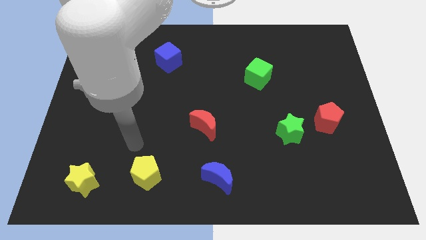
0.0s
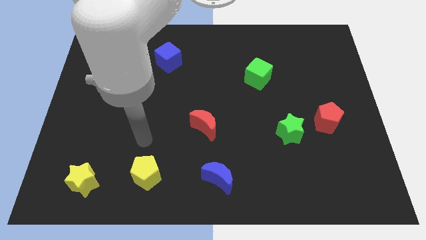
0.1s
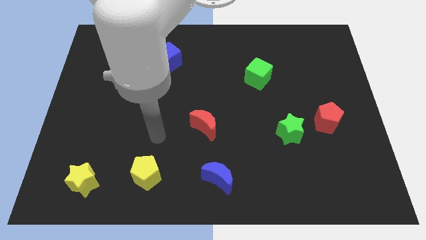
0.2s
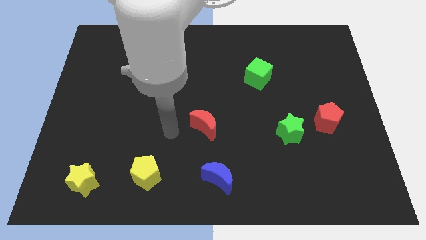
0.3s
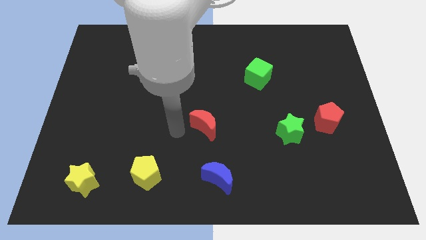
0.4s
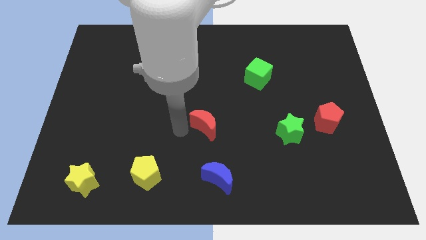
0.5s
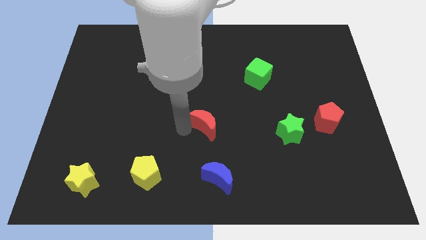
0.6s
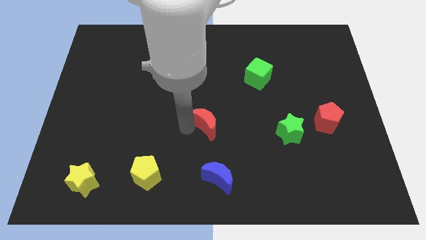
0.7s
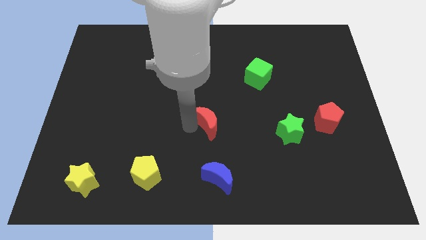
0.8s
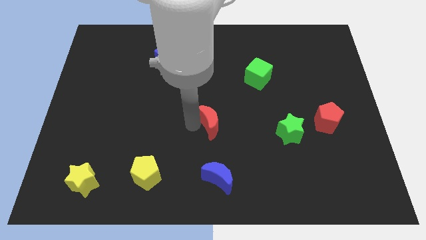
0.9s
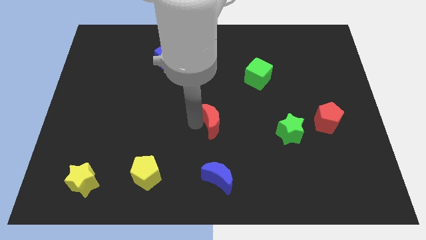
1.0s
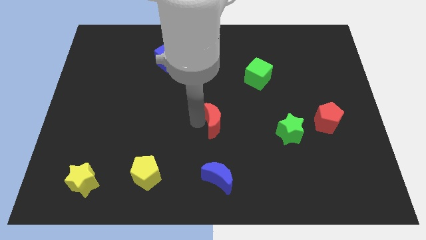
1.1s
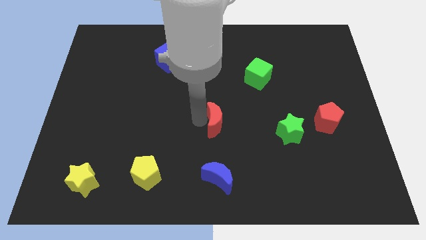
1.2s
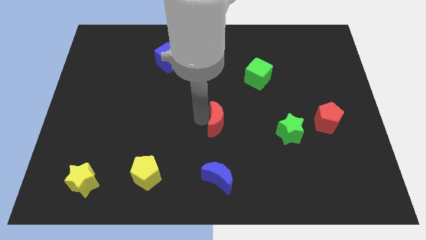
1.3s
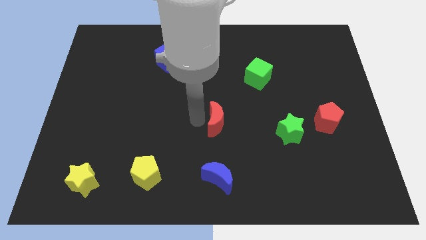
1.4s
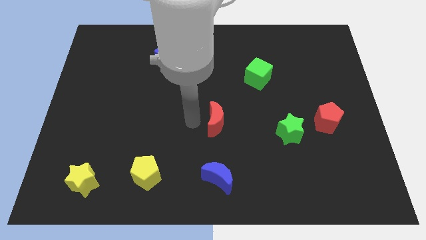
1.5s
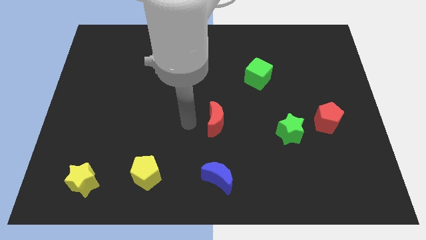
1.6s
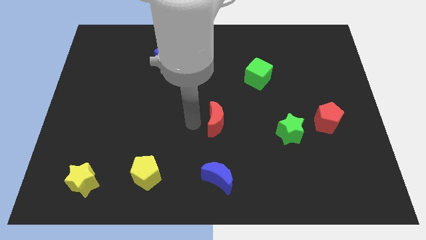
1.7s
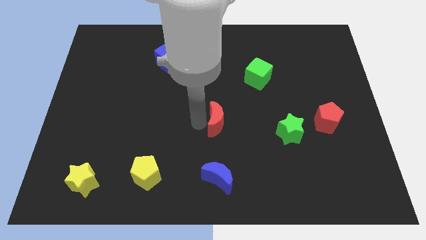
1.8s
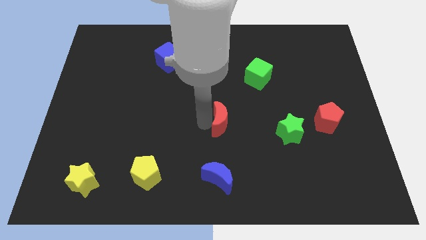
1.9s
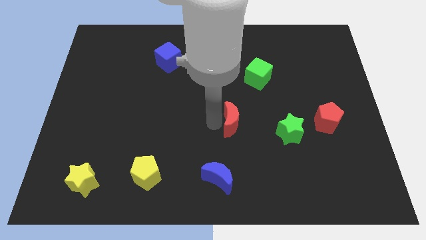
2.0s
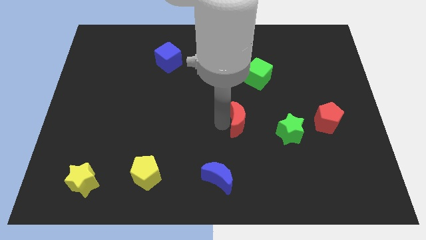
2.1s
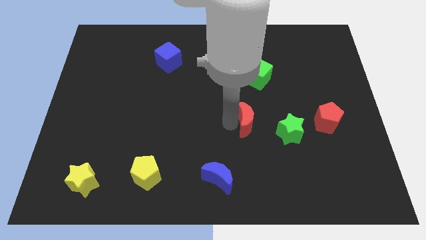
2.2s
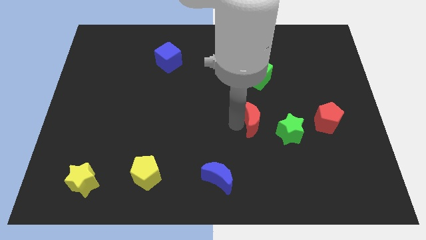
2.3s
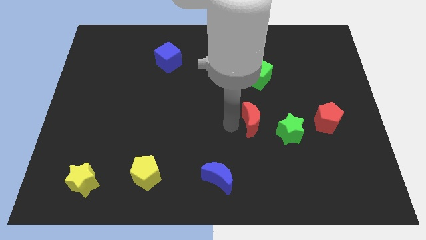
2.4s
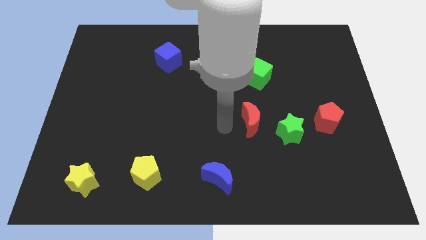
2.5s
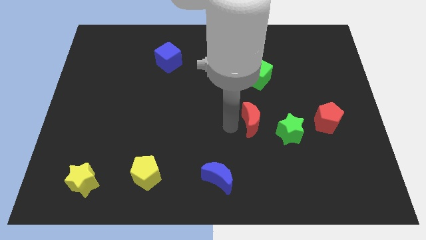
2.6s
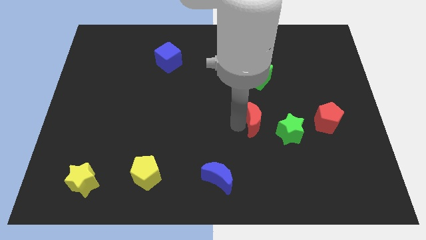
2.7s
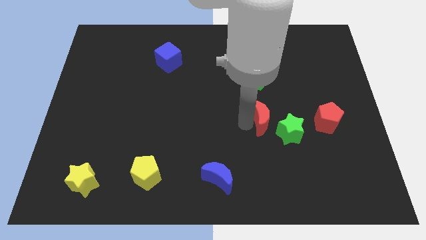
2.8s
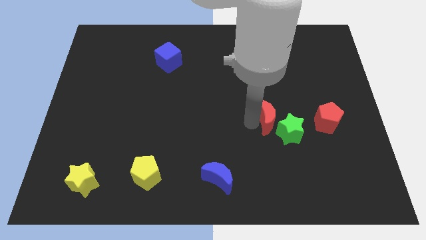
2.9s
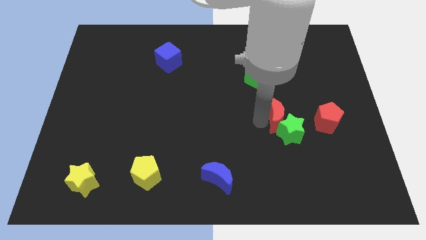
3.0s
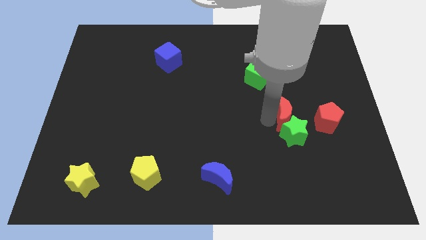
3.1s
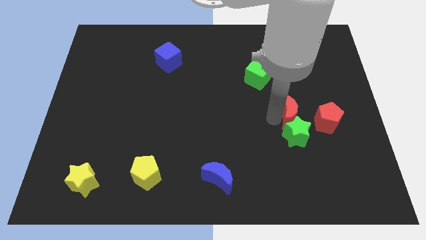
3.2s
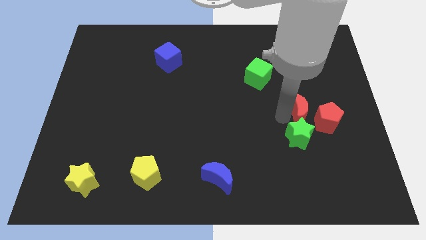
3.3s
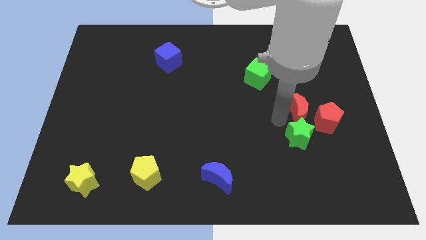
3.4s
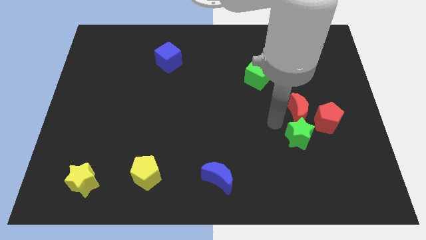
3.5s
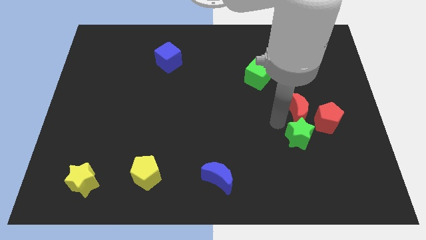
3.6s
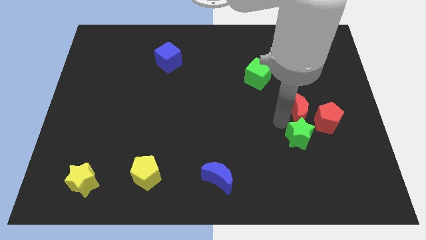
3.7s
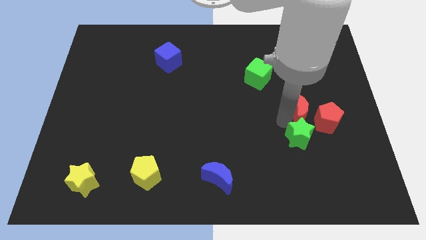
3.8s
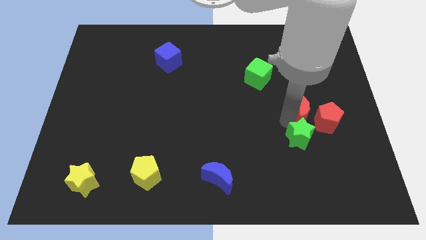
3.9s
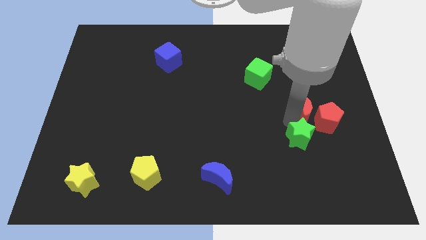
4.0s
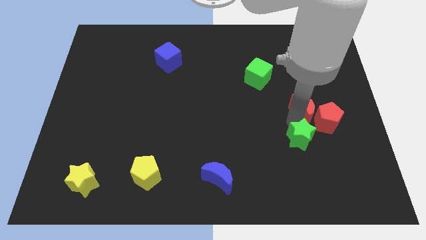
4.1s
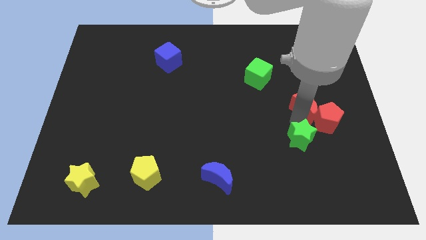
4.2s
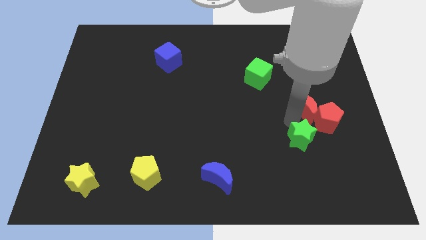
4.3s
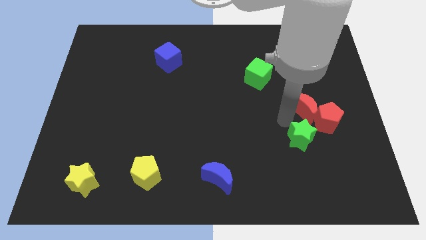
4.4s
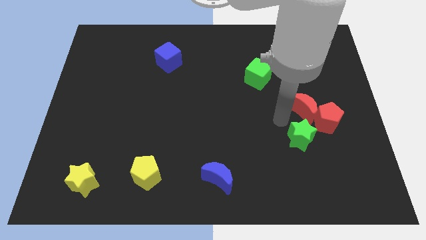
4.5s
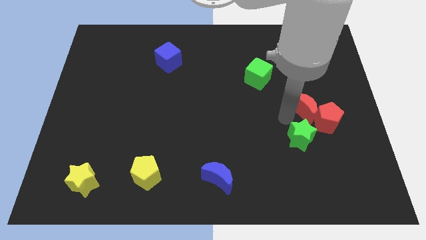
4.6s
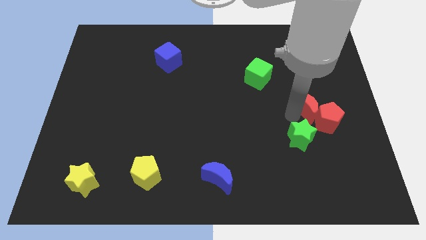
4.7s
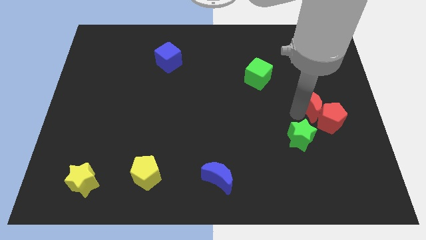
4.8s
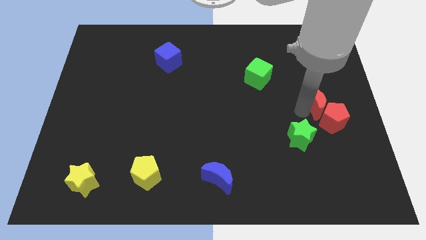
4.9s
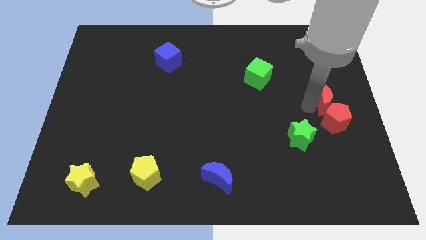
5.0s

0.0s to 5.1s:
put the red moon to the right side

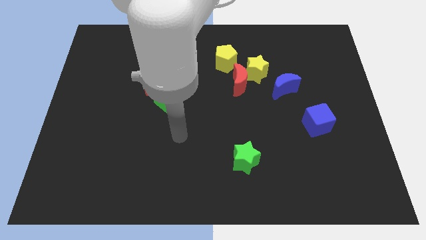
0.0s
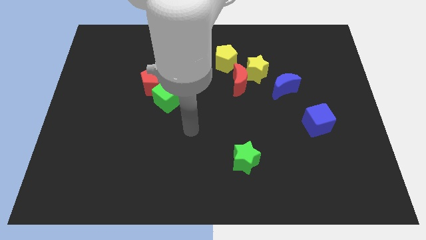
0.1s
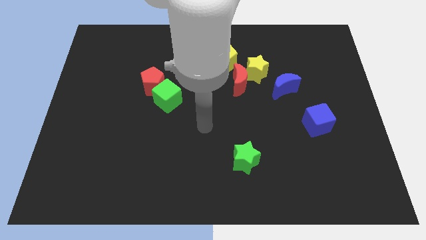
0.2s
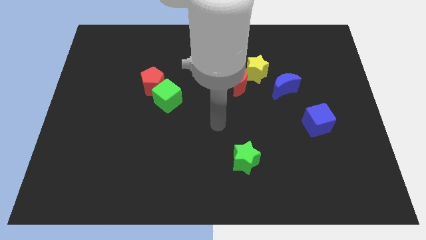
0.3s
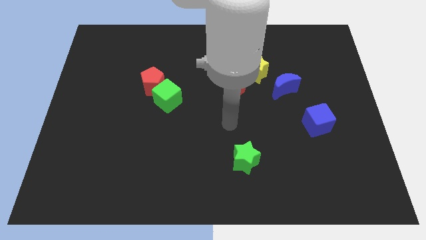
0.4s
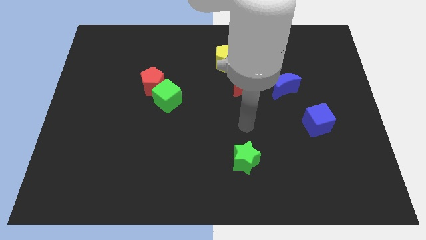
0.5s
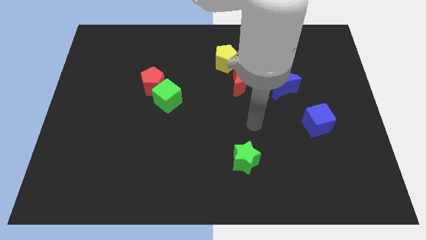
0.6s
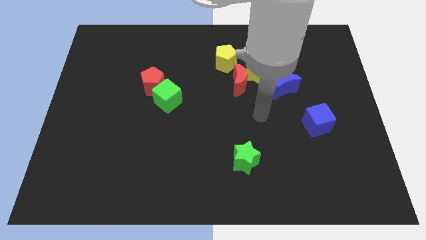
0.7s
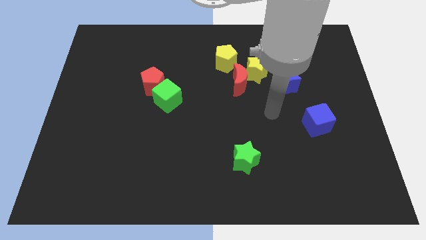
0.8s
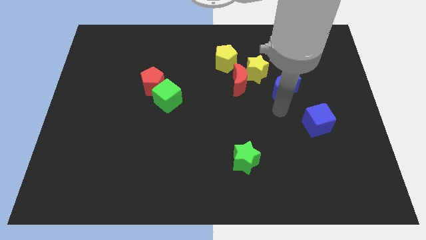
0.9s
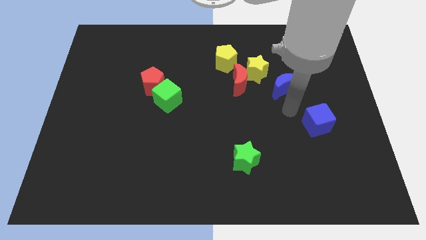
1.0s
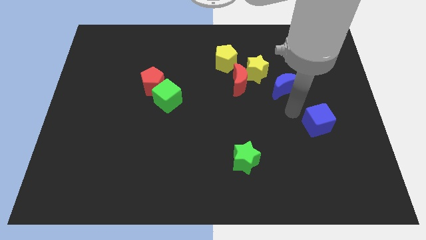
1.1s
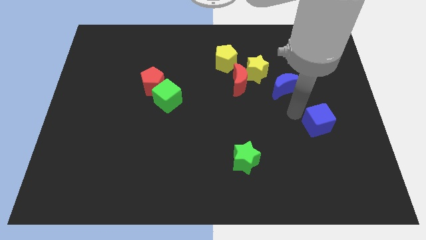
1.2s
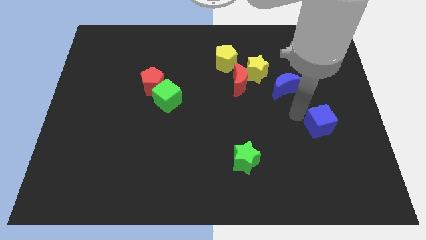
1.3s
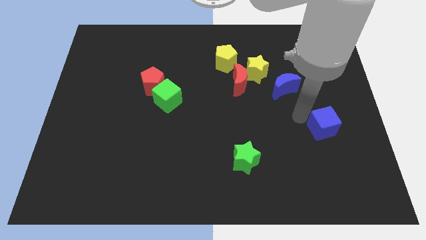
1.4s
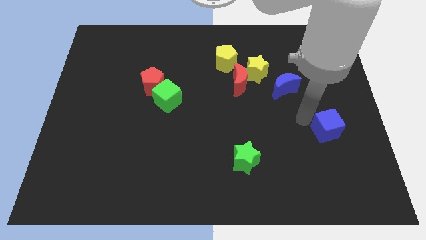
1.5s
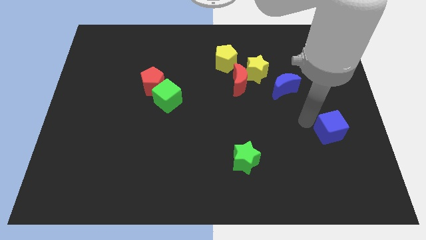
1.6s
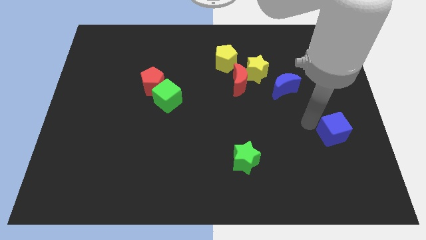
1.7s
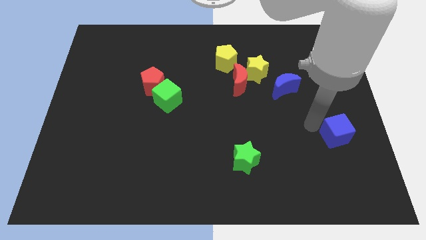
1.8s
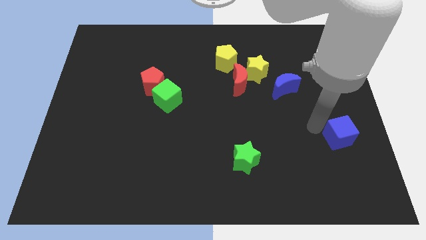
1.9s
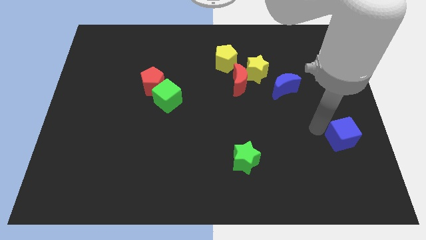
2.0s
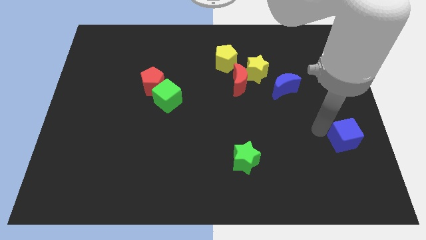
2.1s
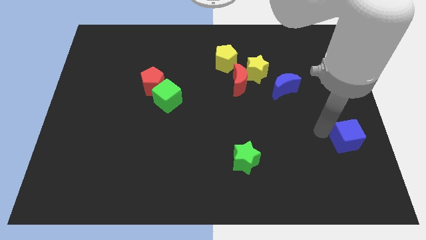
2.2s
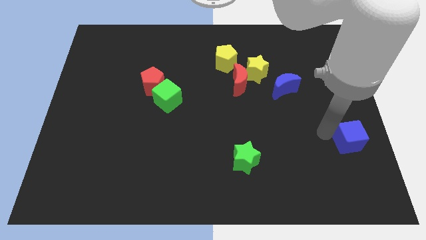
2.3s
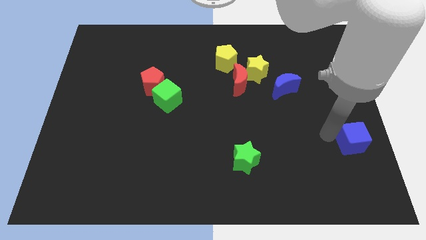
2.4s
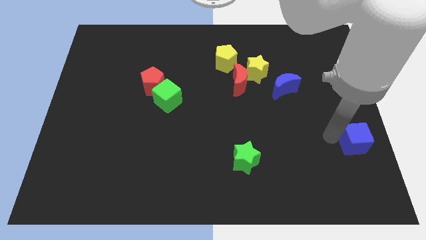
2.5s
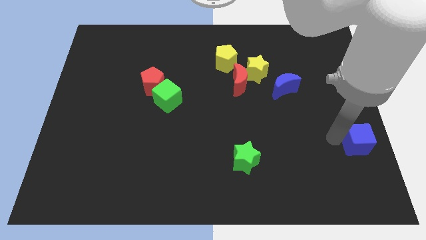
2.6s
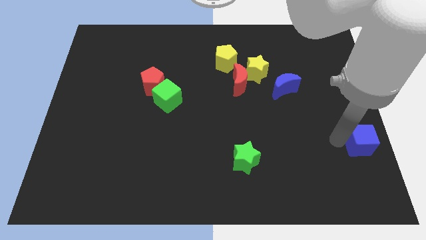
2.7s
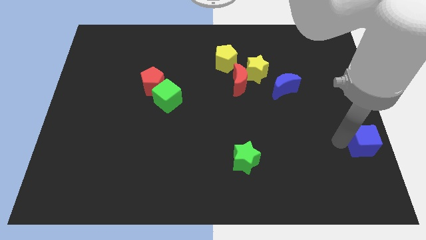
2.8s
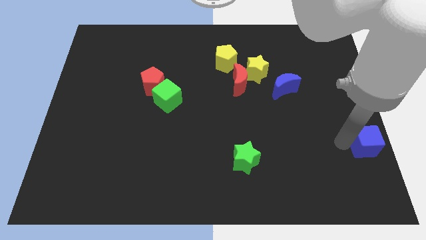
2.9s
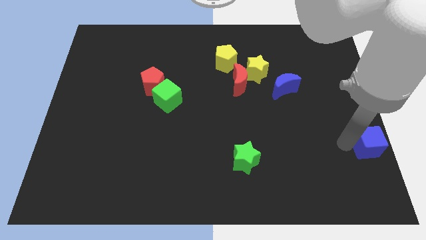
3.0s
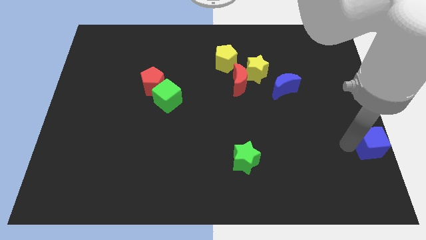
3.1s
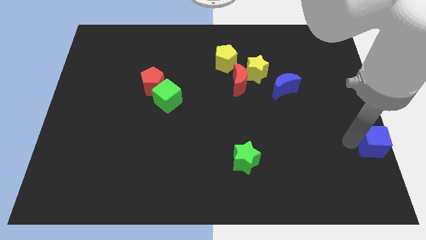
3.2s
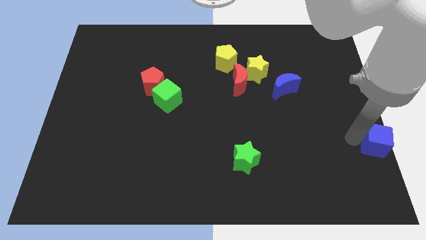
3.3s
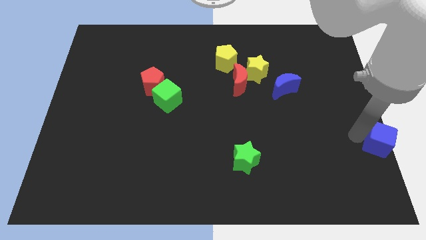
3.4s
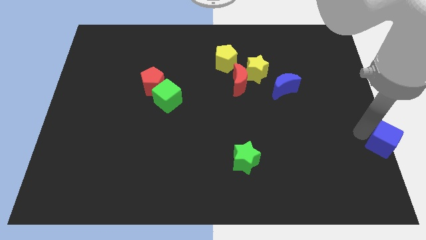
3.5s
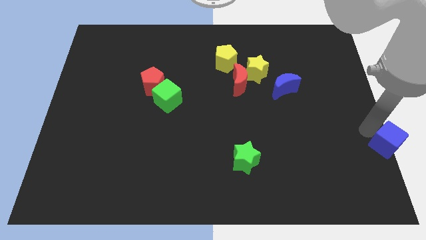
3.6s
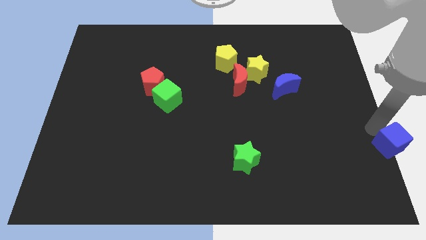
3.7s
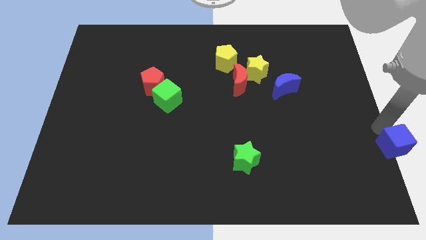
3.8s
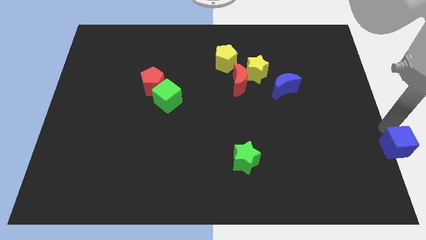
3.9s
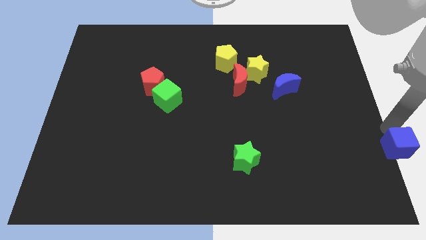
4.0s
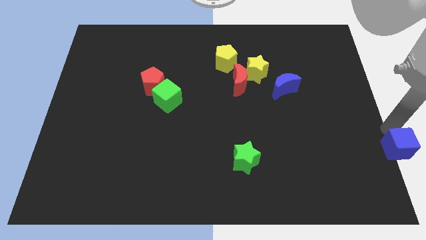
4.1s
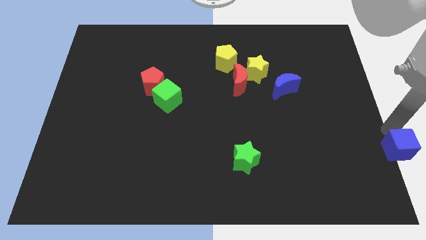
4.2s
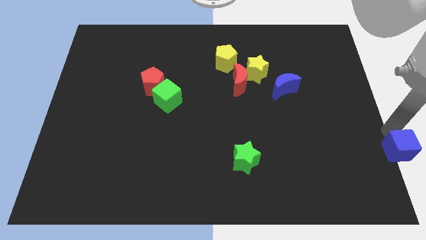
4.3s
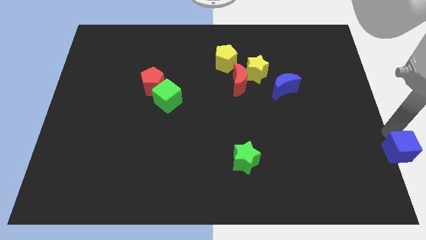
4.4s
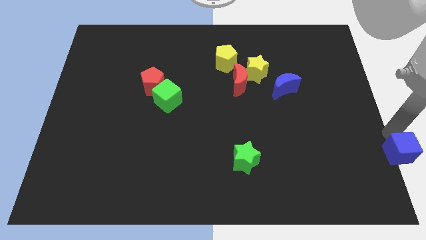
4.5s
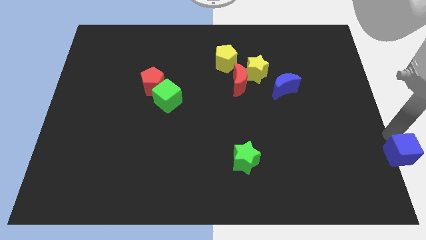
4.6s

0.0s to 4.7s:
put the blue cube to the lower right corner
